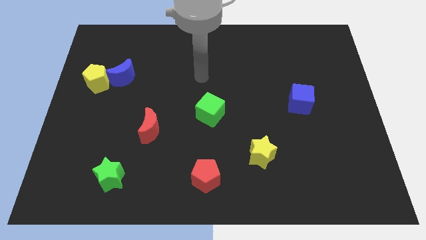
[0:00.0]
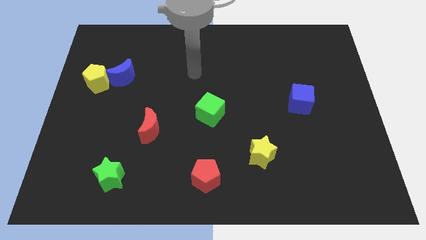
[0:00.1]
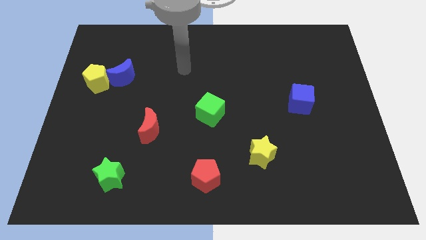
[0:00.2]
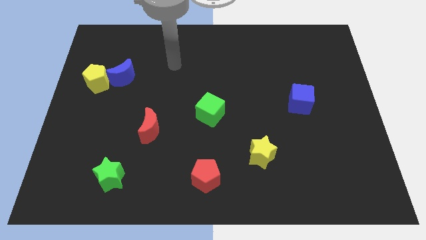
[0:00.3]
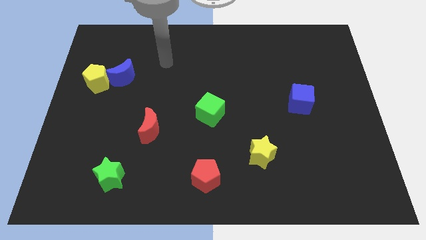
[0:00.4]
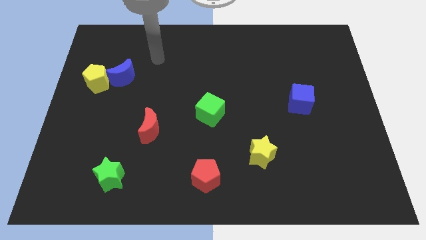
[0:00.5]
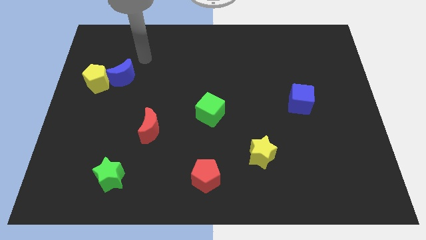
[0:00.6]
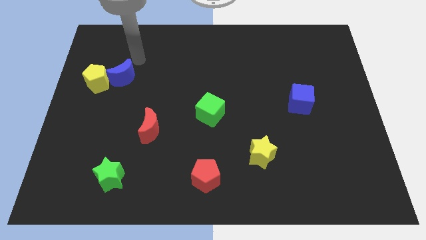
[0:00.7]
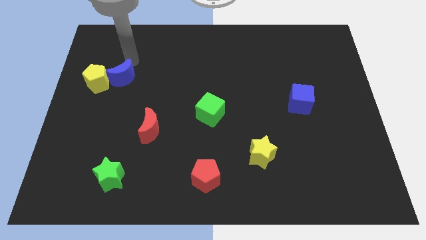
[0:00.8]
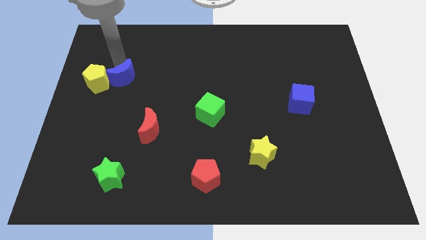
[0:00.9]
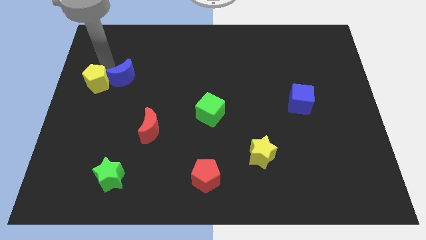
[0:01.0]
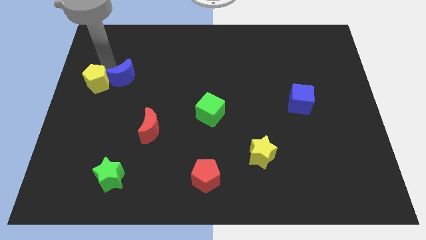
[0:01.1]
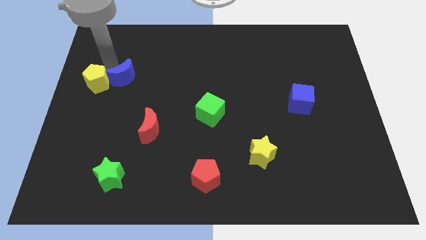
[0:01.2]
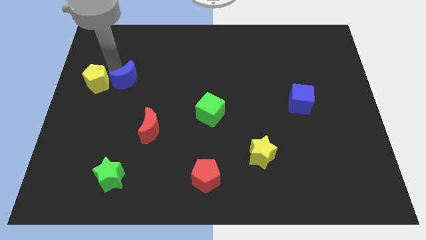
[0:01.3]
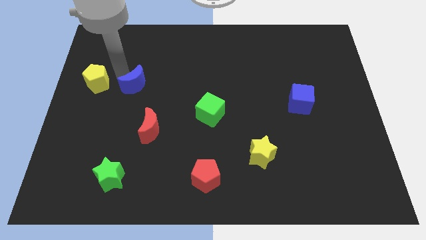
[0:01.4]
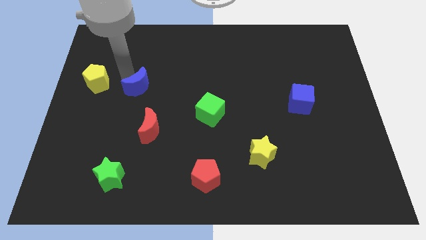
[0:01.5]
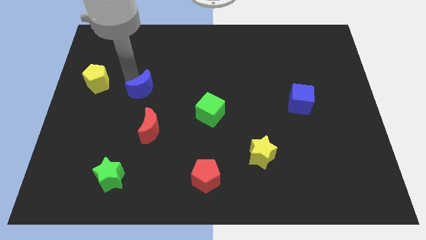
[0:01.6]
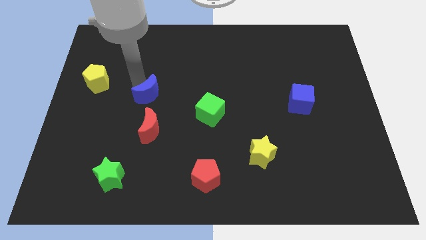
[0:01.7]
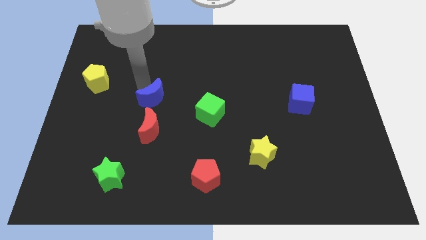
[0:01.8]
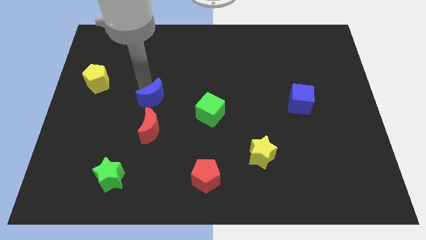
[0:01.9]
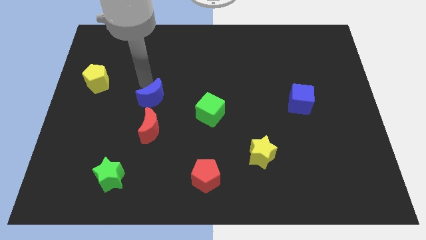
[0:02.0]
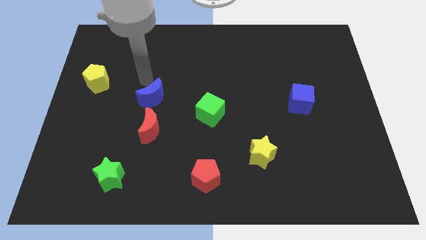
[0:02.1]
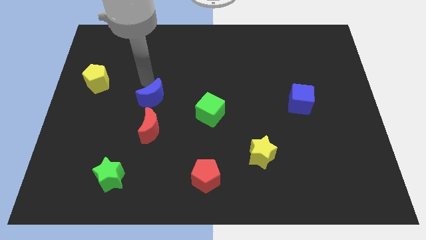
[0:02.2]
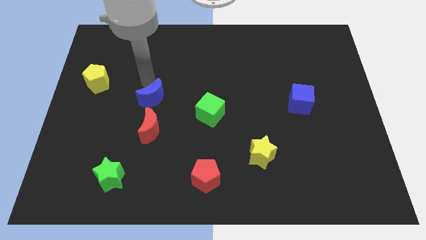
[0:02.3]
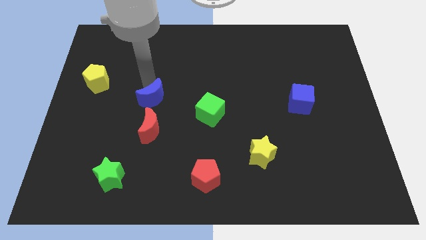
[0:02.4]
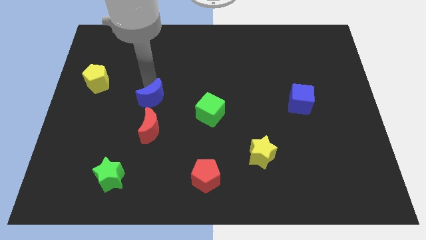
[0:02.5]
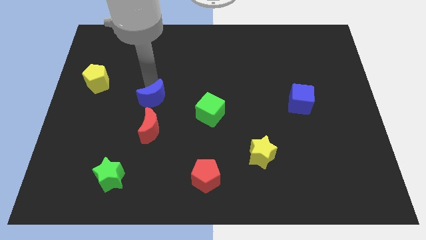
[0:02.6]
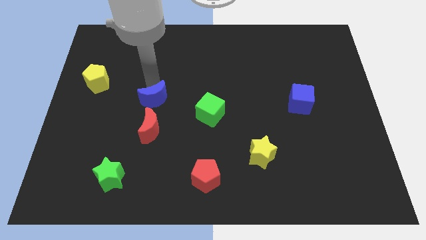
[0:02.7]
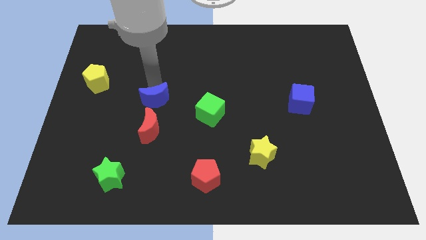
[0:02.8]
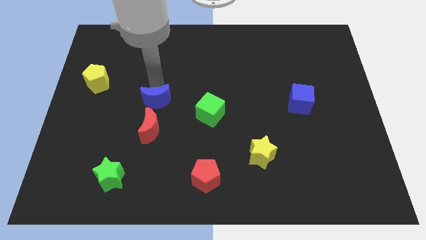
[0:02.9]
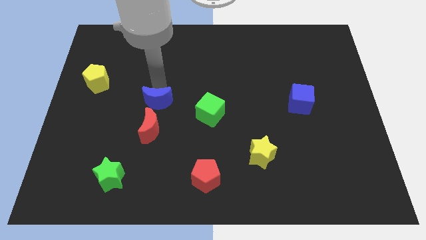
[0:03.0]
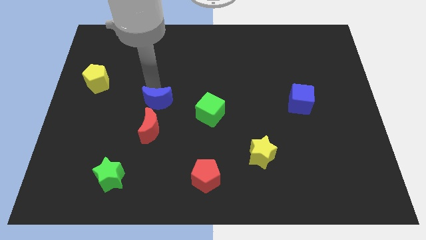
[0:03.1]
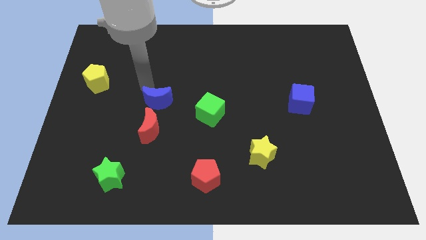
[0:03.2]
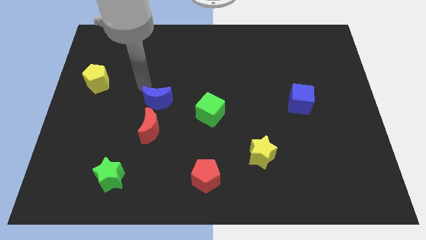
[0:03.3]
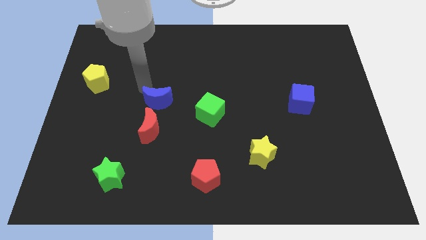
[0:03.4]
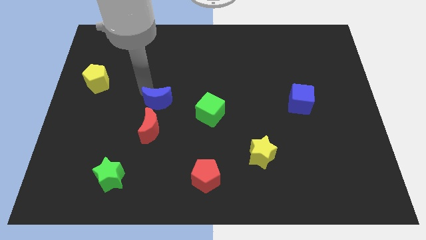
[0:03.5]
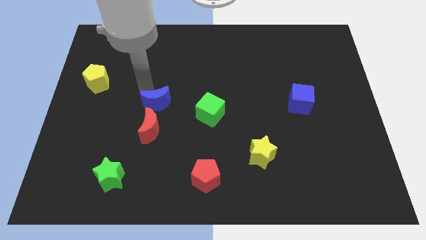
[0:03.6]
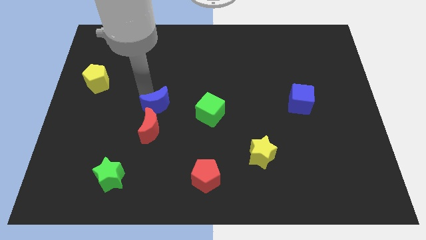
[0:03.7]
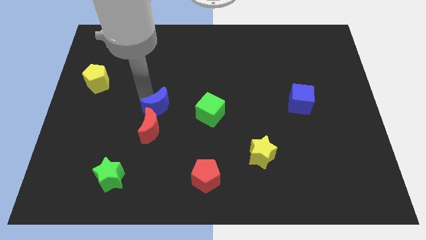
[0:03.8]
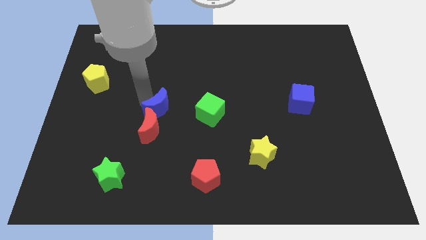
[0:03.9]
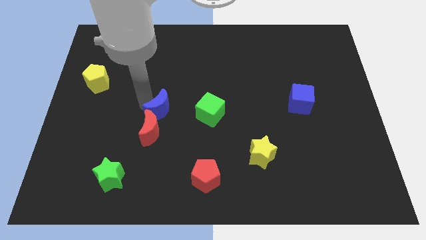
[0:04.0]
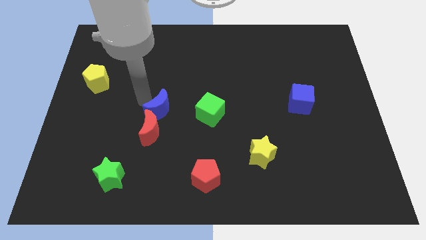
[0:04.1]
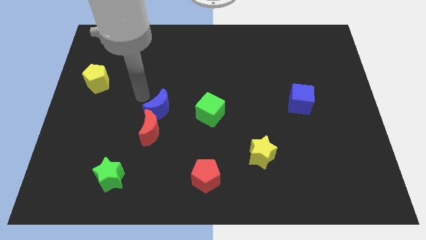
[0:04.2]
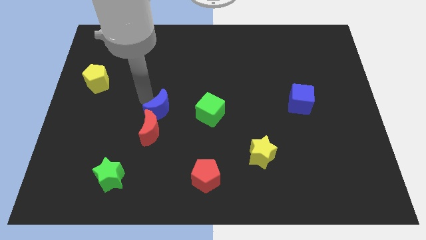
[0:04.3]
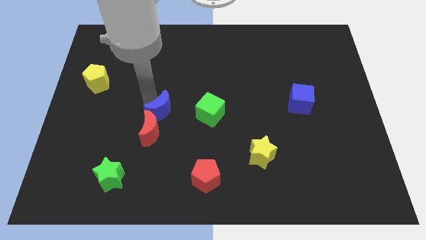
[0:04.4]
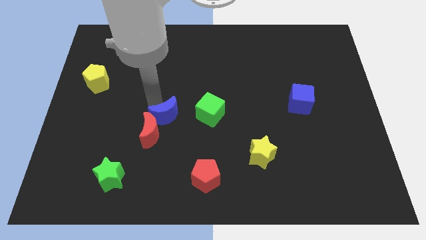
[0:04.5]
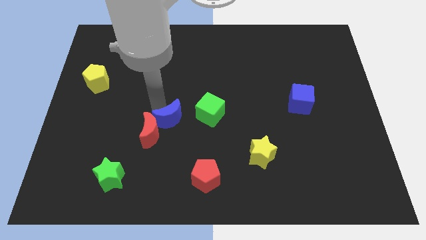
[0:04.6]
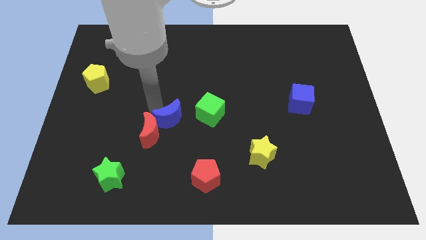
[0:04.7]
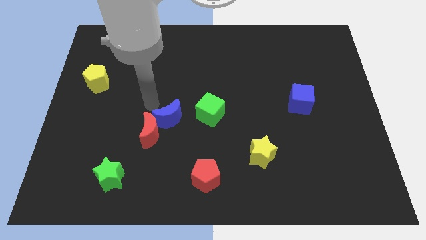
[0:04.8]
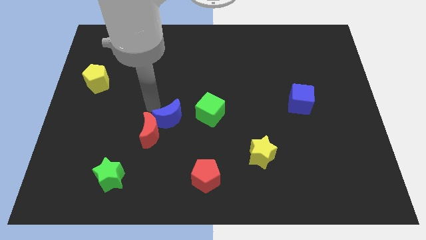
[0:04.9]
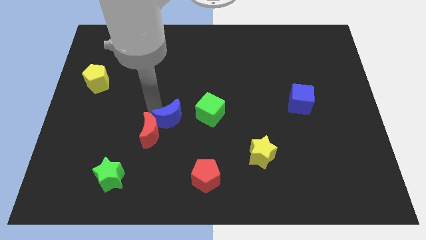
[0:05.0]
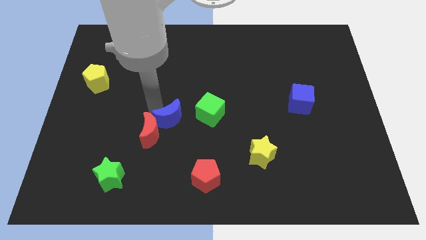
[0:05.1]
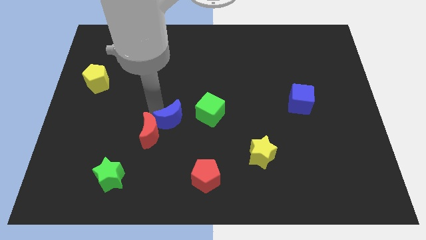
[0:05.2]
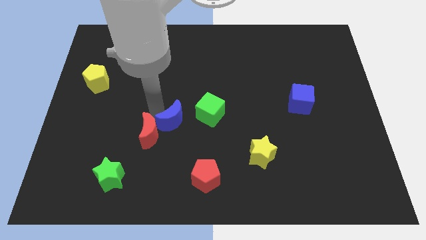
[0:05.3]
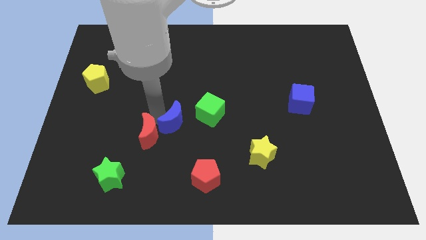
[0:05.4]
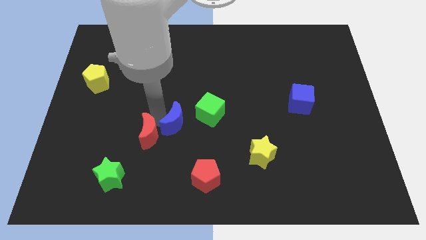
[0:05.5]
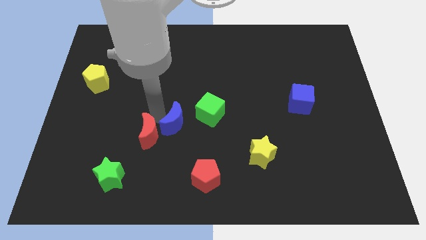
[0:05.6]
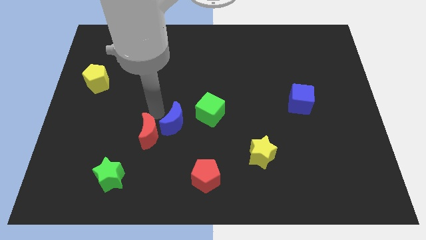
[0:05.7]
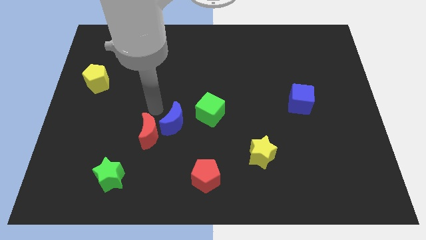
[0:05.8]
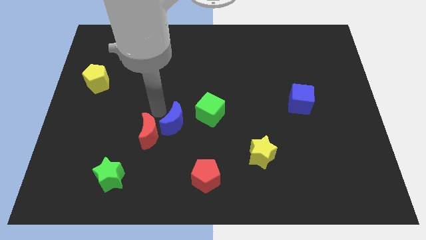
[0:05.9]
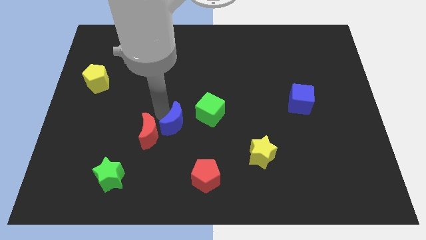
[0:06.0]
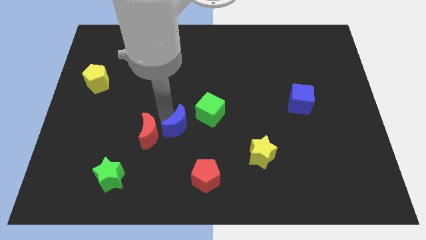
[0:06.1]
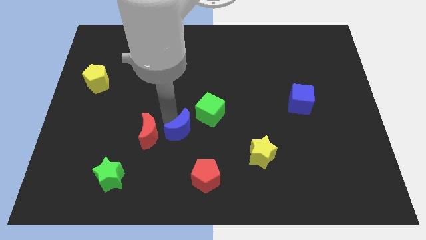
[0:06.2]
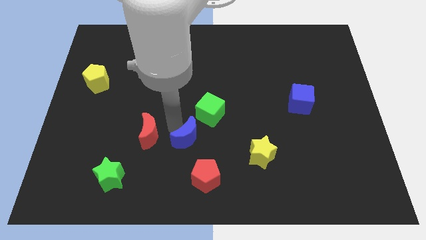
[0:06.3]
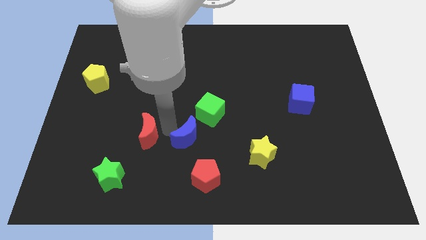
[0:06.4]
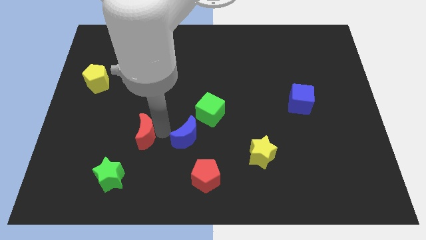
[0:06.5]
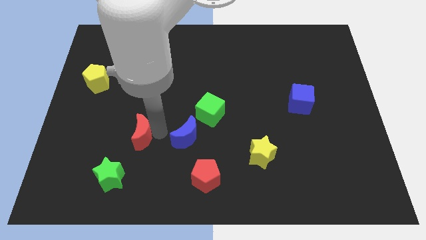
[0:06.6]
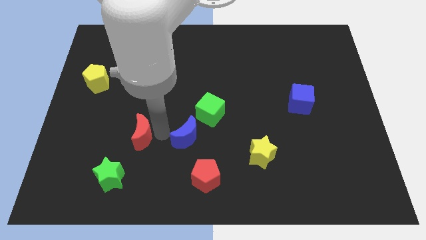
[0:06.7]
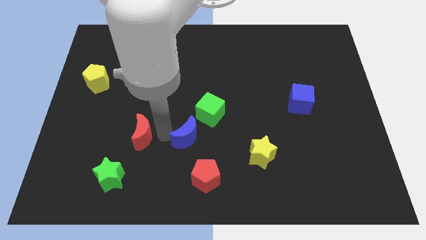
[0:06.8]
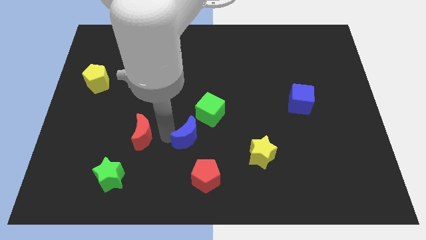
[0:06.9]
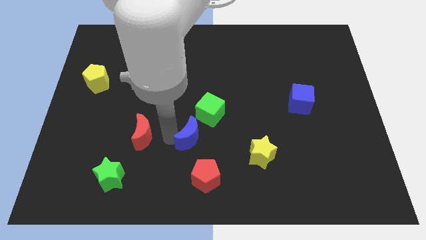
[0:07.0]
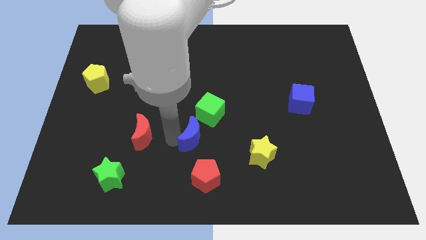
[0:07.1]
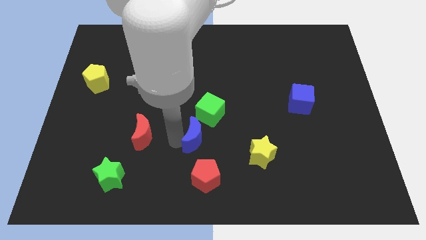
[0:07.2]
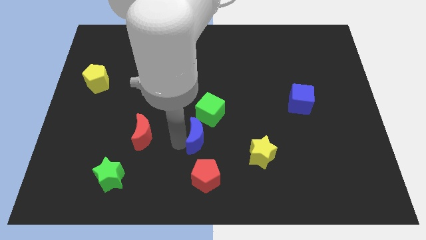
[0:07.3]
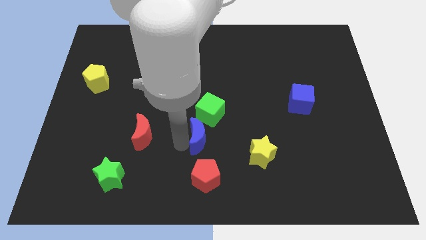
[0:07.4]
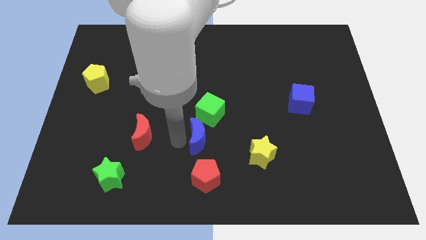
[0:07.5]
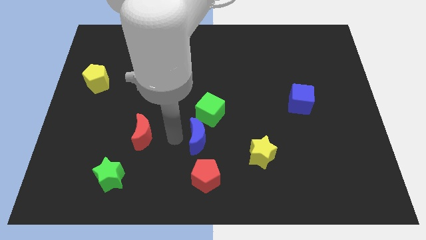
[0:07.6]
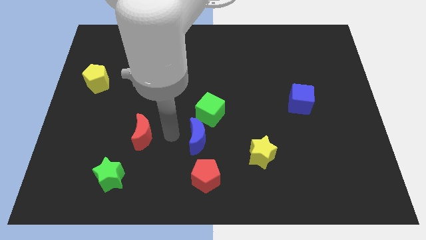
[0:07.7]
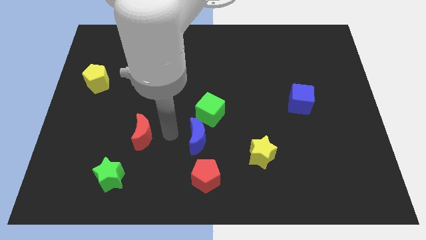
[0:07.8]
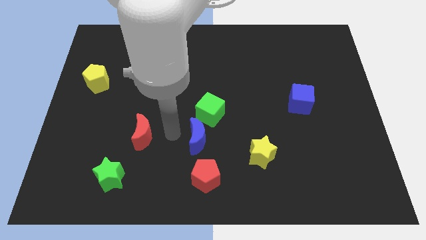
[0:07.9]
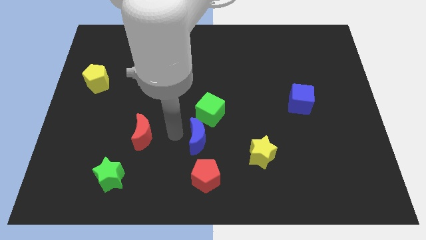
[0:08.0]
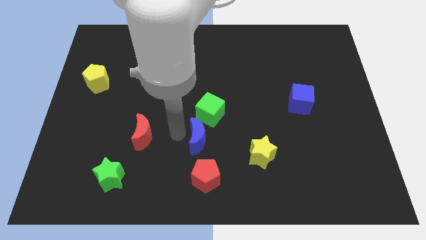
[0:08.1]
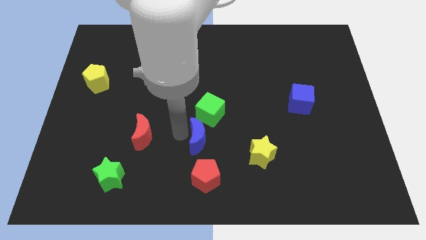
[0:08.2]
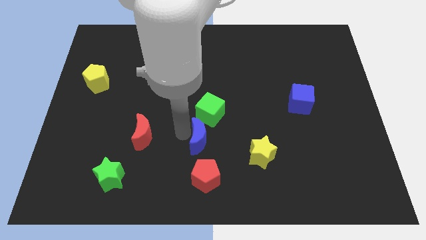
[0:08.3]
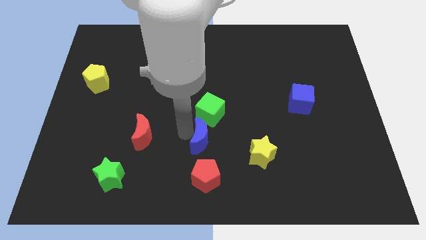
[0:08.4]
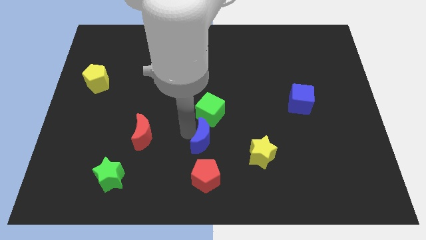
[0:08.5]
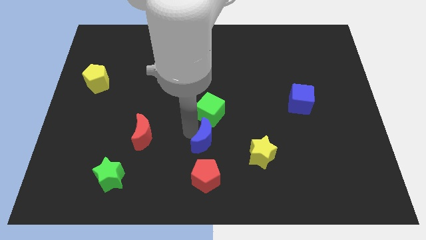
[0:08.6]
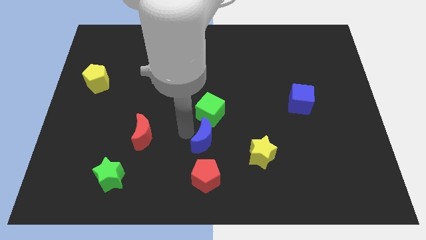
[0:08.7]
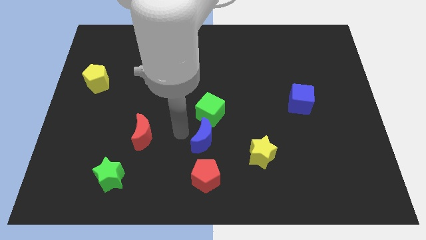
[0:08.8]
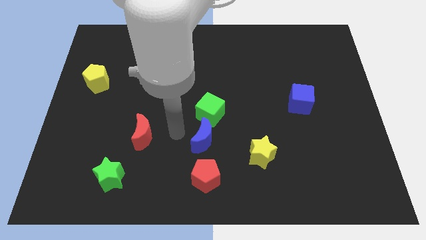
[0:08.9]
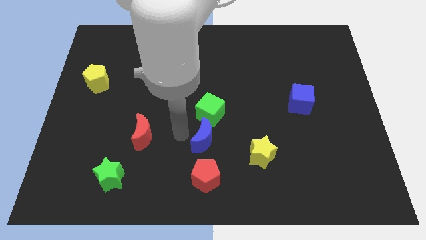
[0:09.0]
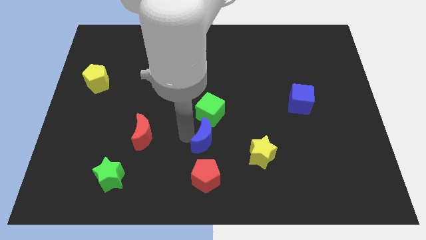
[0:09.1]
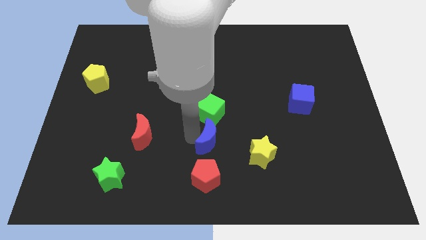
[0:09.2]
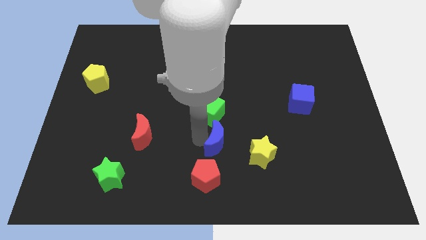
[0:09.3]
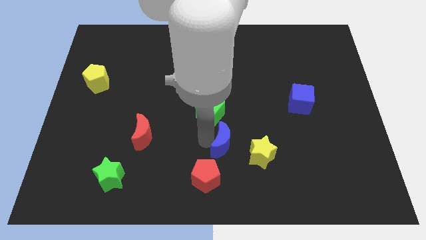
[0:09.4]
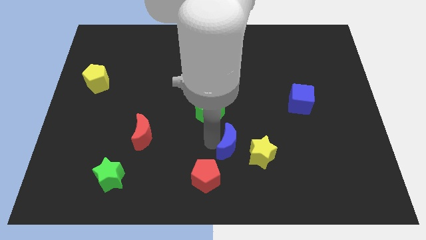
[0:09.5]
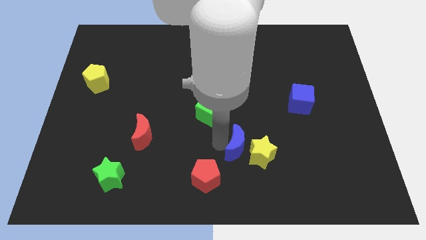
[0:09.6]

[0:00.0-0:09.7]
slide the blue moon to the yellow star
